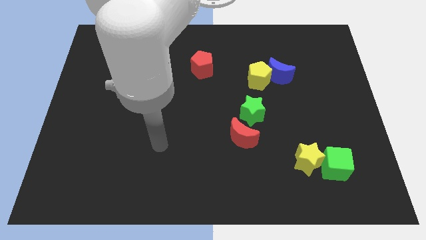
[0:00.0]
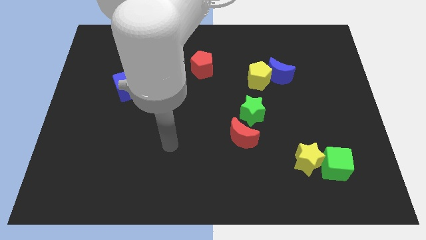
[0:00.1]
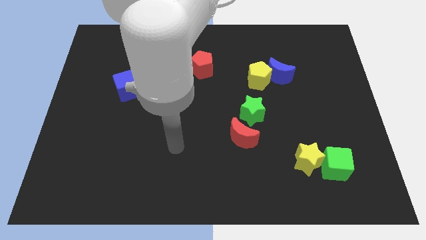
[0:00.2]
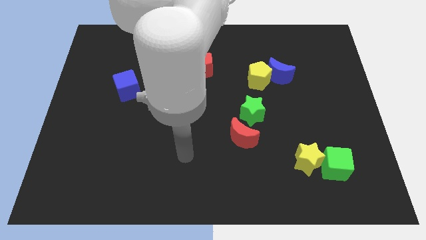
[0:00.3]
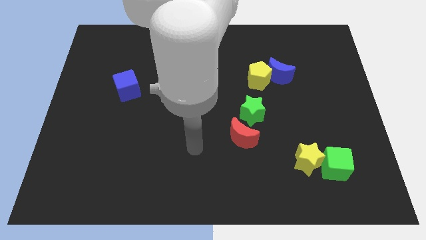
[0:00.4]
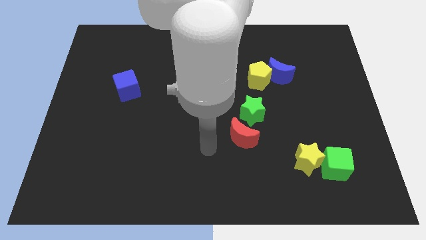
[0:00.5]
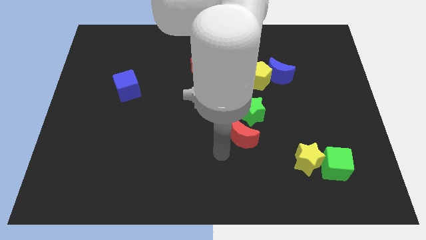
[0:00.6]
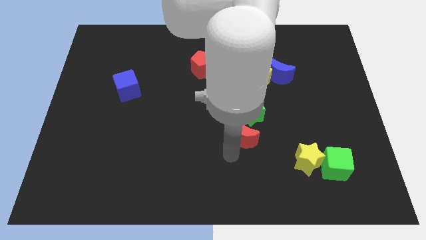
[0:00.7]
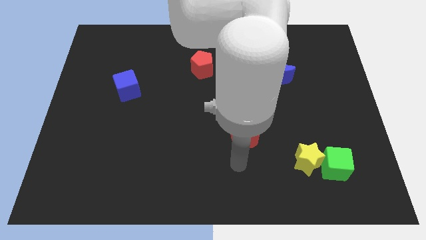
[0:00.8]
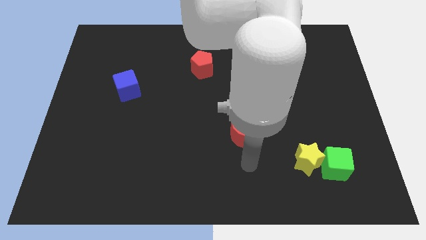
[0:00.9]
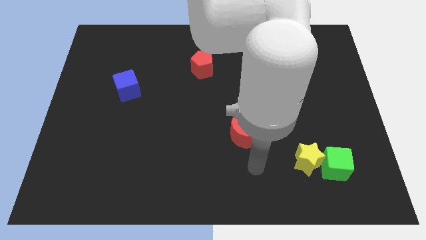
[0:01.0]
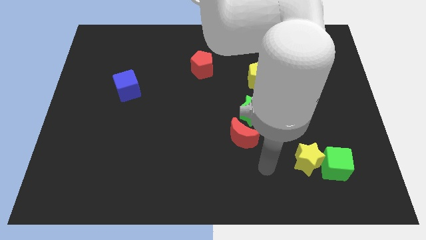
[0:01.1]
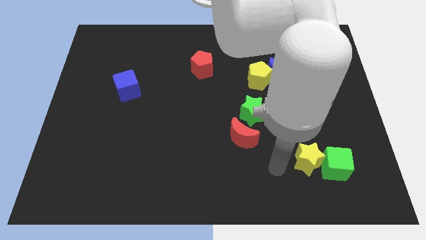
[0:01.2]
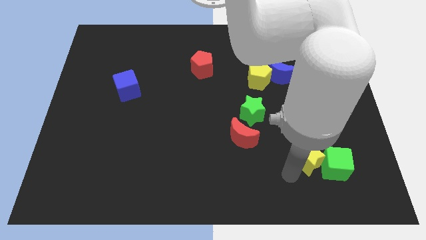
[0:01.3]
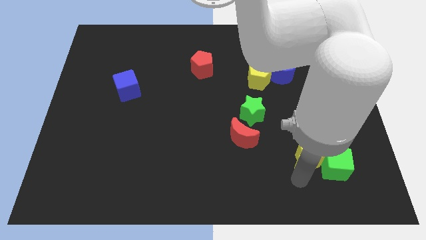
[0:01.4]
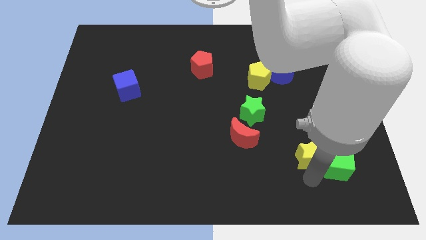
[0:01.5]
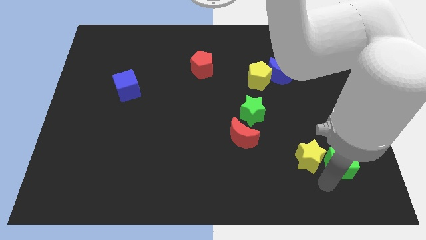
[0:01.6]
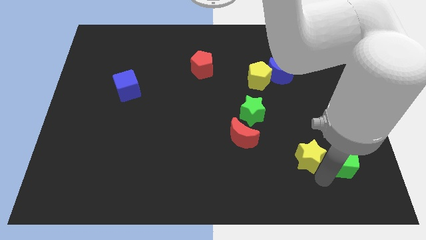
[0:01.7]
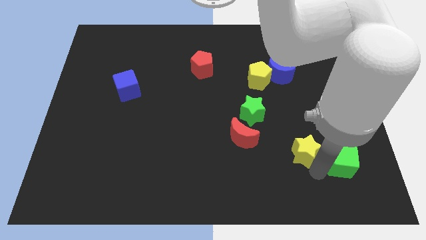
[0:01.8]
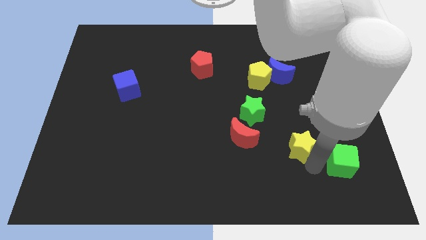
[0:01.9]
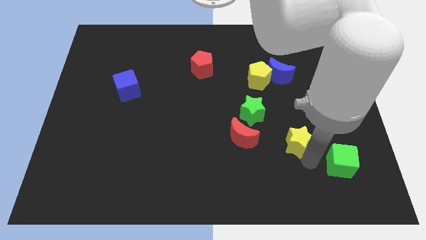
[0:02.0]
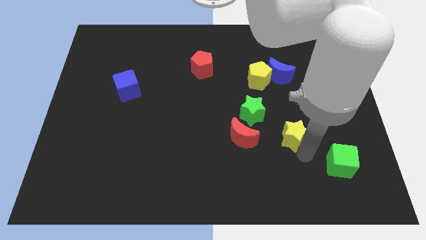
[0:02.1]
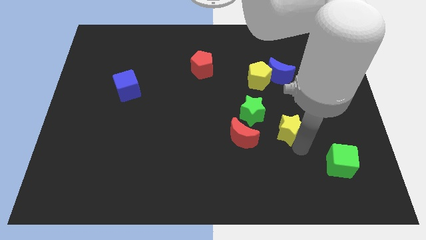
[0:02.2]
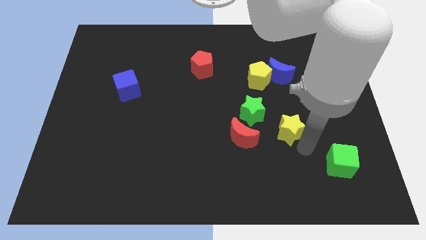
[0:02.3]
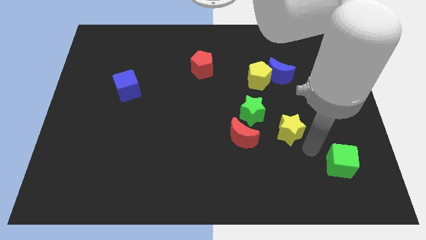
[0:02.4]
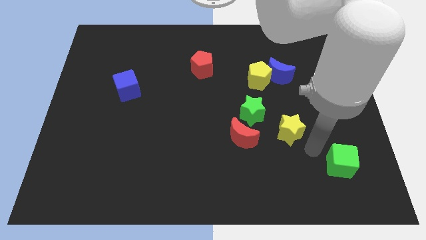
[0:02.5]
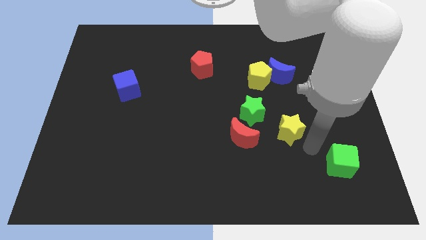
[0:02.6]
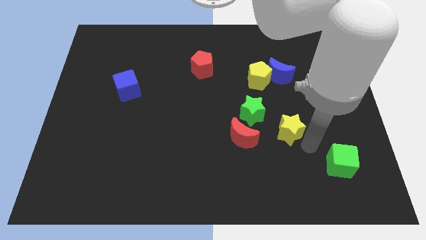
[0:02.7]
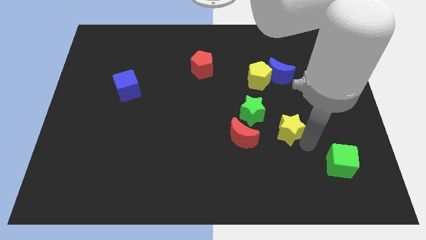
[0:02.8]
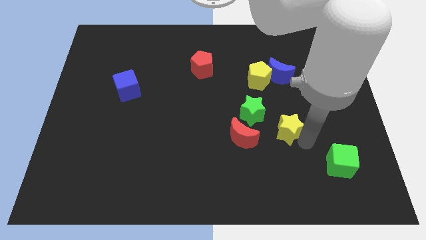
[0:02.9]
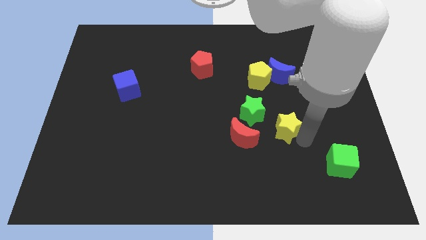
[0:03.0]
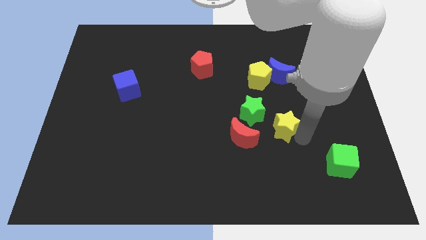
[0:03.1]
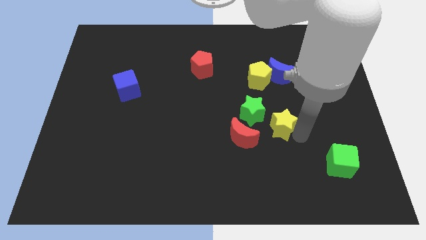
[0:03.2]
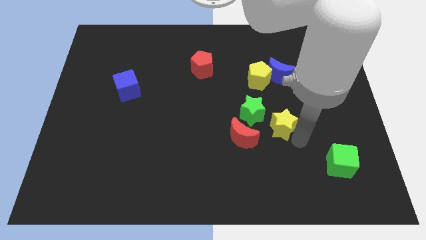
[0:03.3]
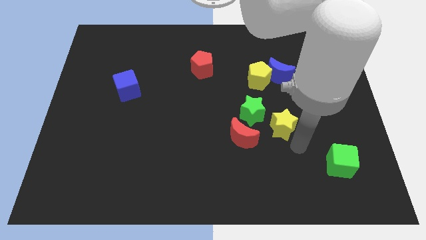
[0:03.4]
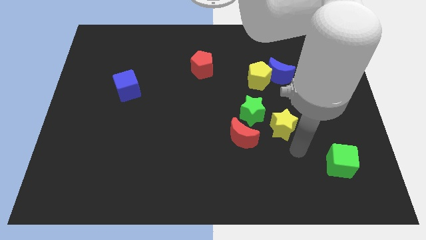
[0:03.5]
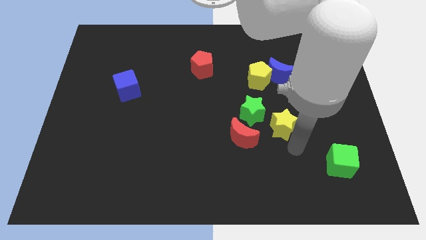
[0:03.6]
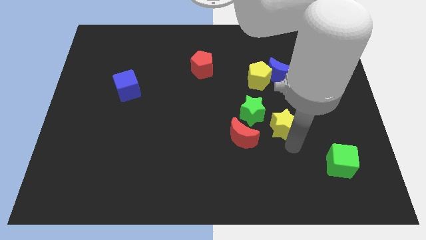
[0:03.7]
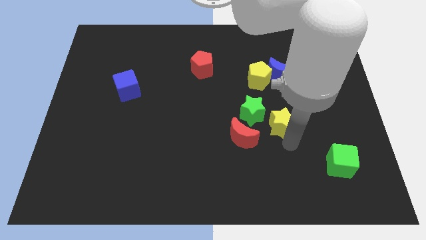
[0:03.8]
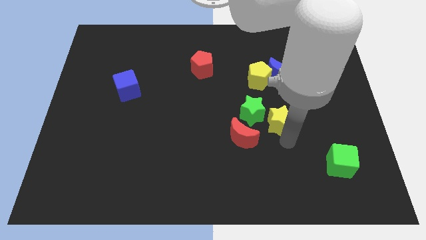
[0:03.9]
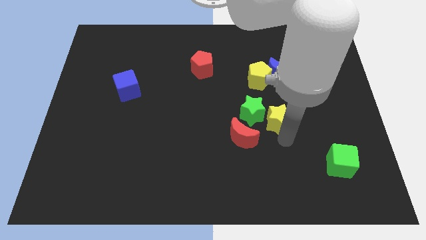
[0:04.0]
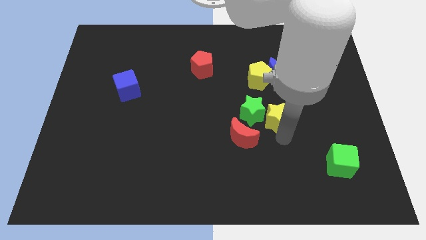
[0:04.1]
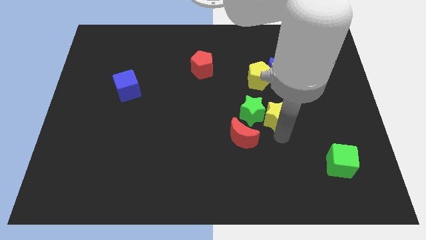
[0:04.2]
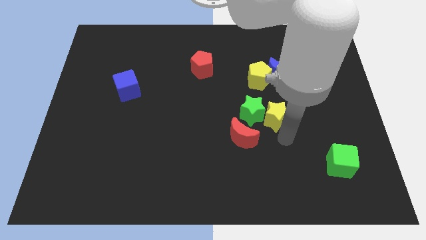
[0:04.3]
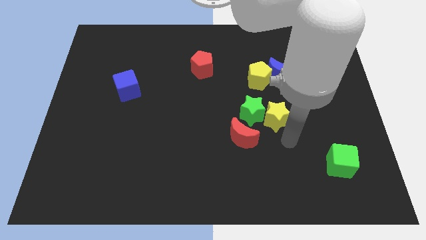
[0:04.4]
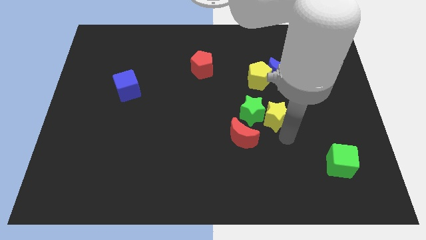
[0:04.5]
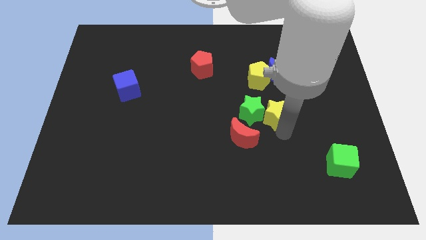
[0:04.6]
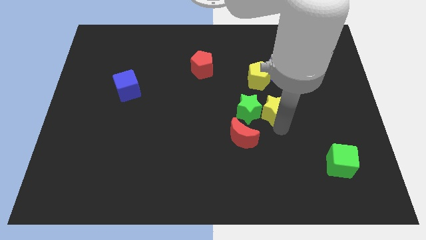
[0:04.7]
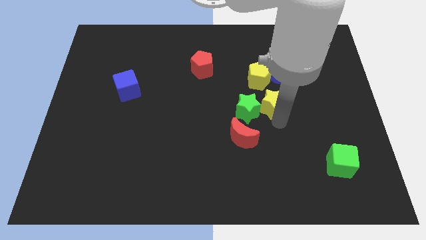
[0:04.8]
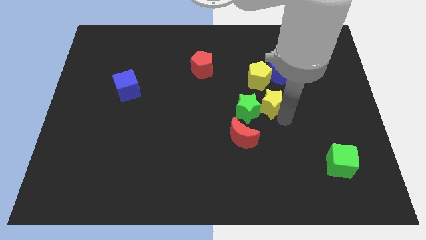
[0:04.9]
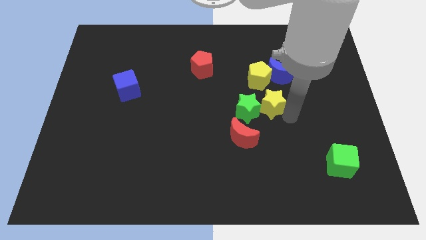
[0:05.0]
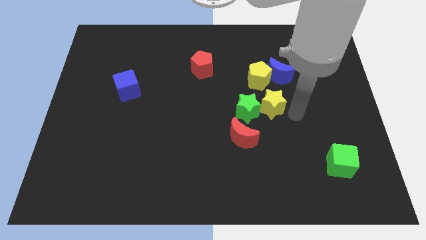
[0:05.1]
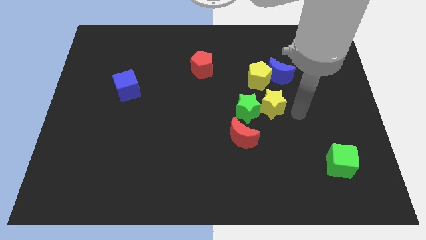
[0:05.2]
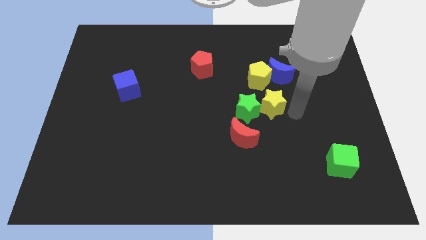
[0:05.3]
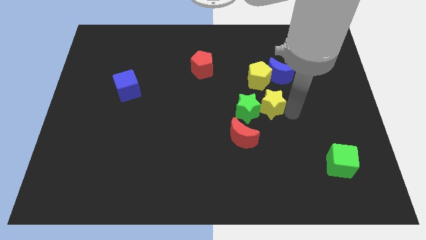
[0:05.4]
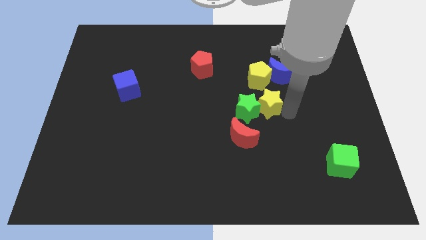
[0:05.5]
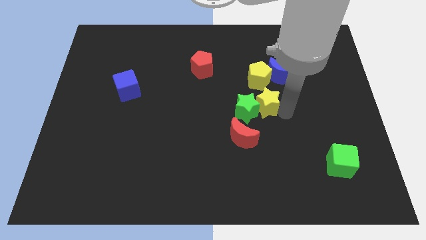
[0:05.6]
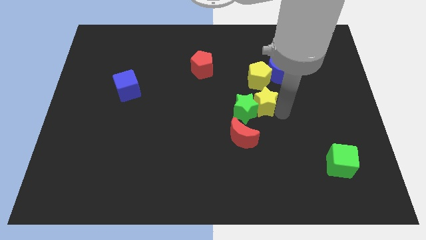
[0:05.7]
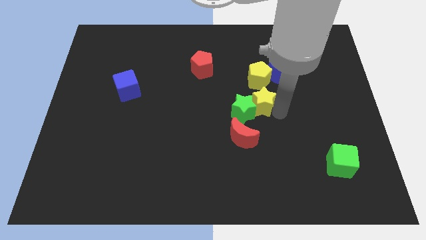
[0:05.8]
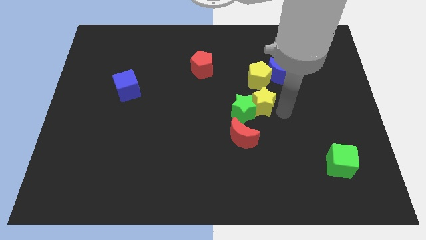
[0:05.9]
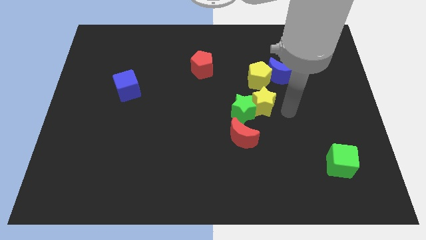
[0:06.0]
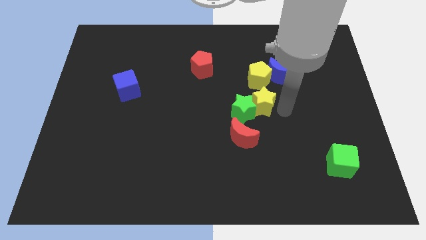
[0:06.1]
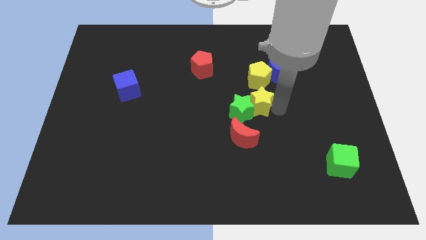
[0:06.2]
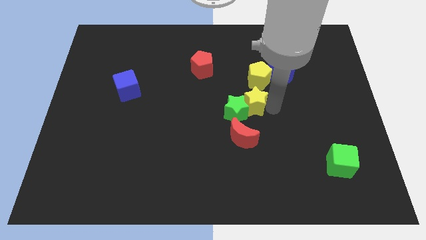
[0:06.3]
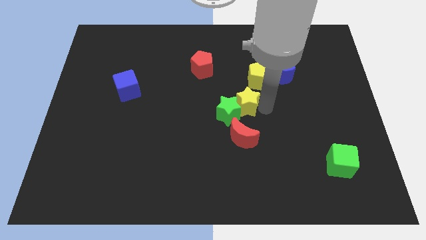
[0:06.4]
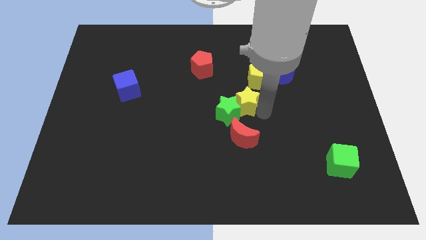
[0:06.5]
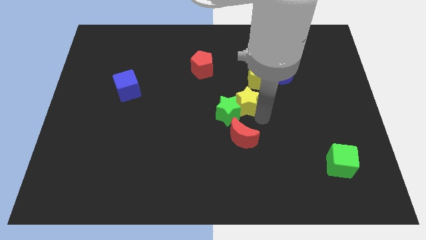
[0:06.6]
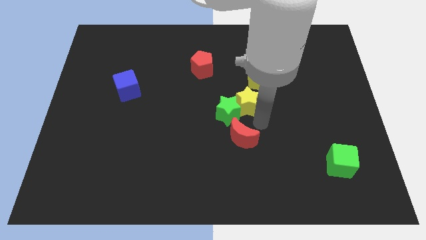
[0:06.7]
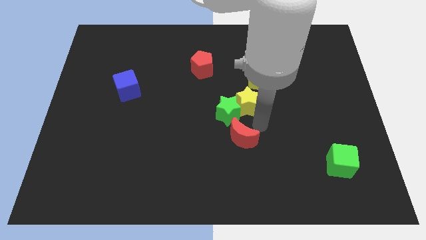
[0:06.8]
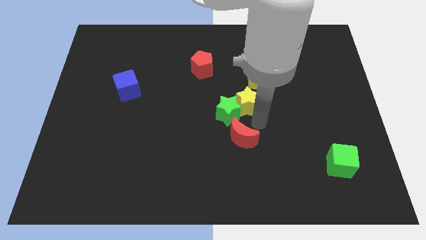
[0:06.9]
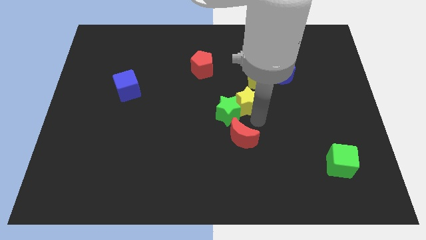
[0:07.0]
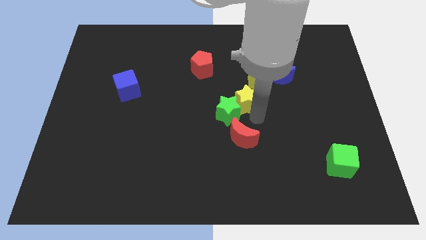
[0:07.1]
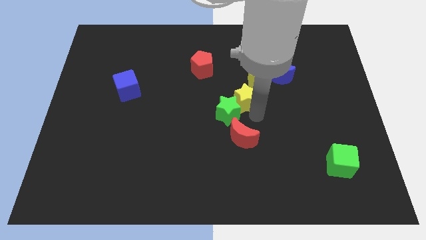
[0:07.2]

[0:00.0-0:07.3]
move the yellow star up and then to the left

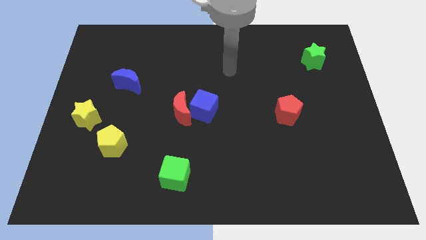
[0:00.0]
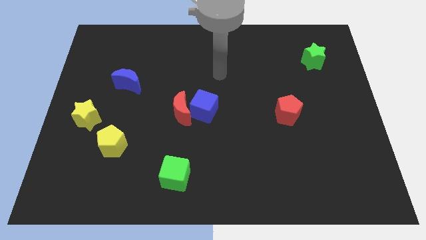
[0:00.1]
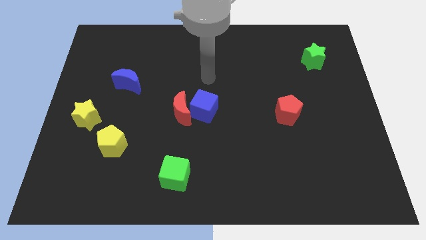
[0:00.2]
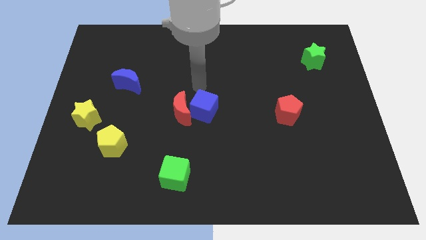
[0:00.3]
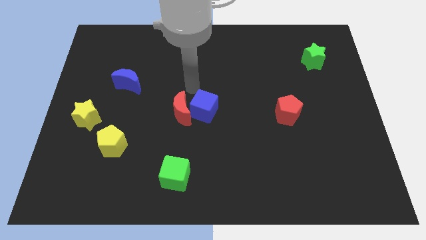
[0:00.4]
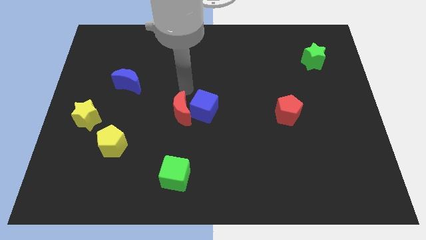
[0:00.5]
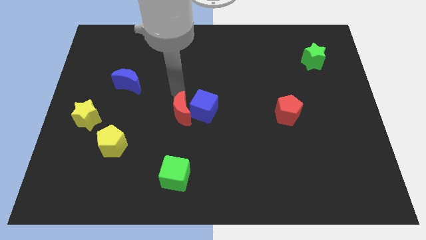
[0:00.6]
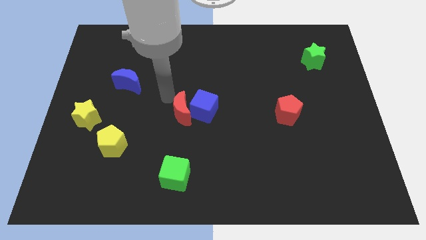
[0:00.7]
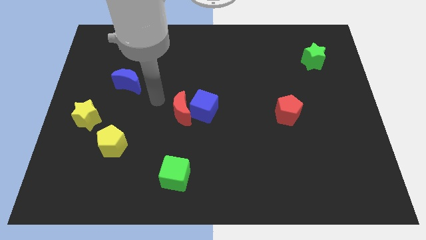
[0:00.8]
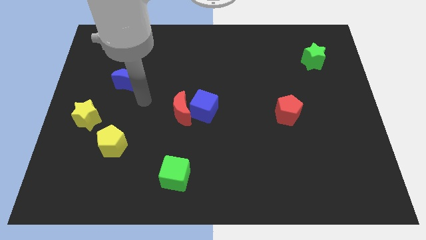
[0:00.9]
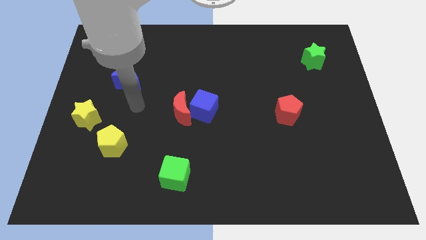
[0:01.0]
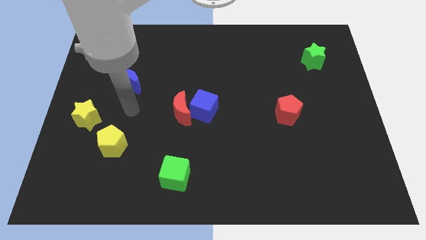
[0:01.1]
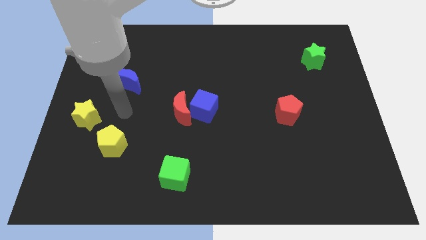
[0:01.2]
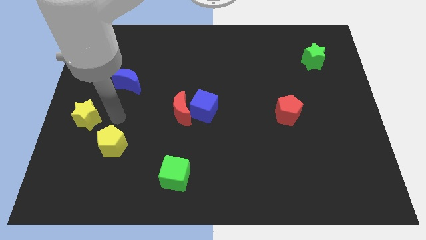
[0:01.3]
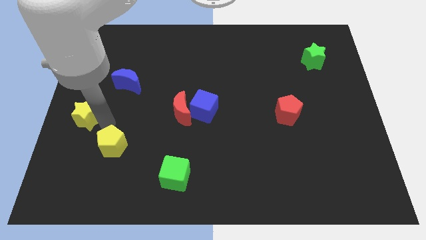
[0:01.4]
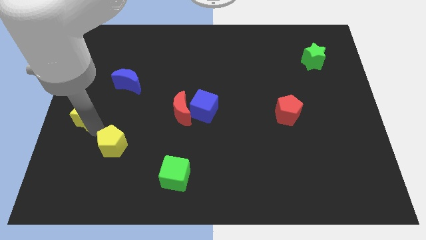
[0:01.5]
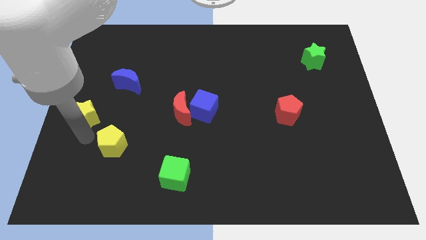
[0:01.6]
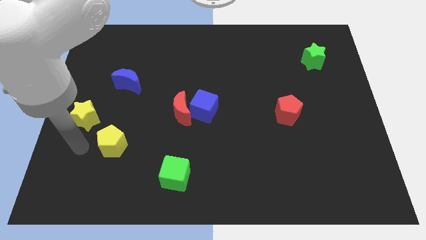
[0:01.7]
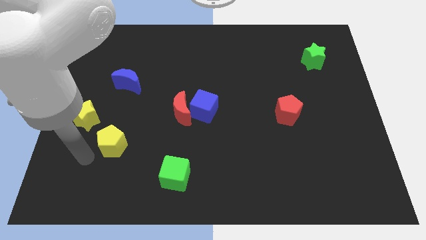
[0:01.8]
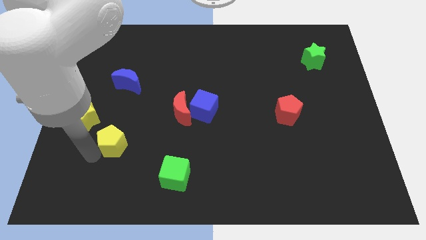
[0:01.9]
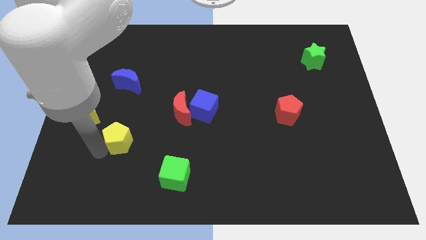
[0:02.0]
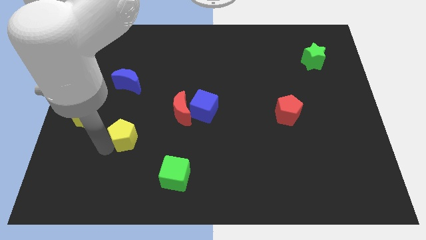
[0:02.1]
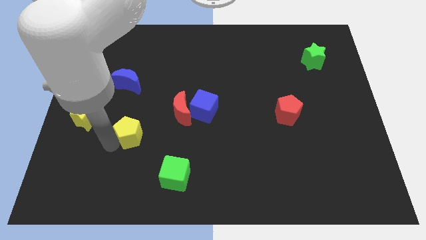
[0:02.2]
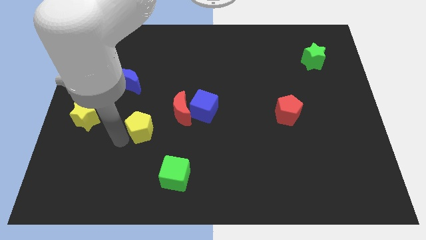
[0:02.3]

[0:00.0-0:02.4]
slightly push the yellow pentagon diagonally upwards and to the right
